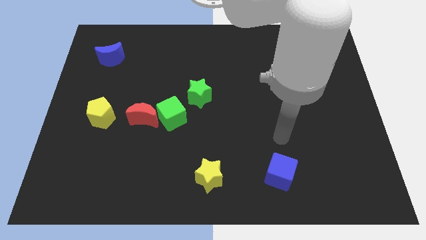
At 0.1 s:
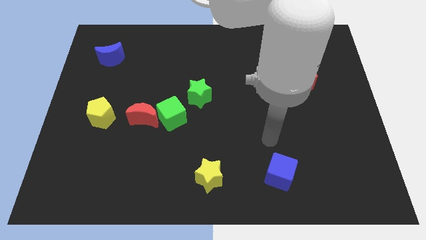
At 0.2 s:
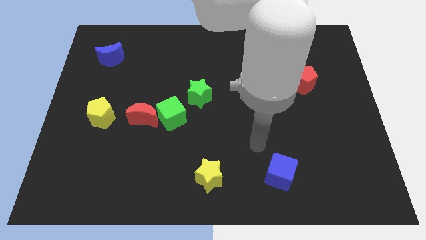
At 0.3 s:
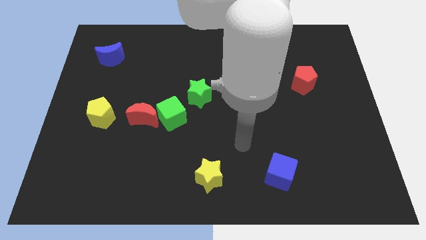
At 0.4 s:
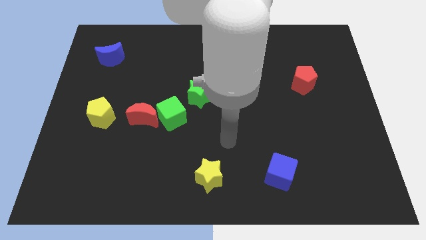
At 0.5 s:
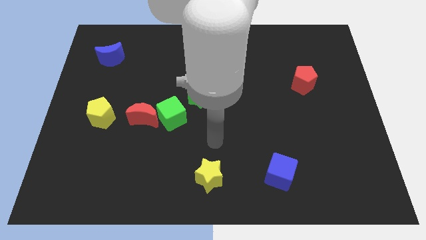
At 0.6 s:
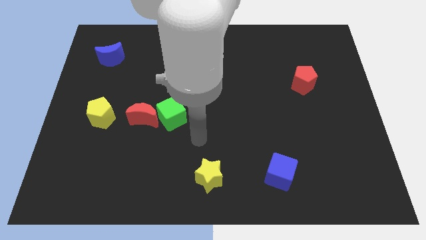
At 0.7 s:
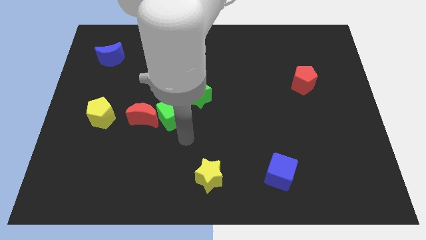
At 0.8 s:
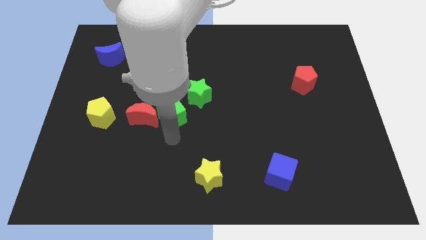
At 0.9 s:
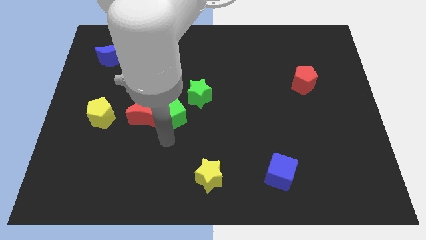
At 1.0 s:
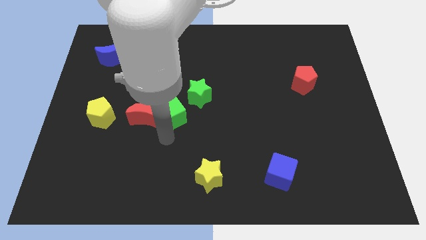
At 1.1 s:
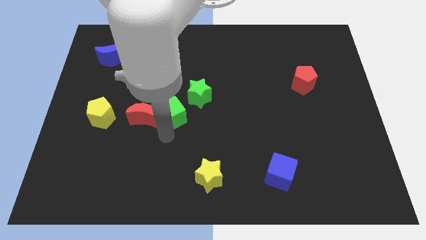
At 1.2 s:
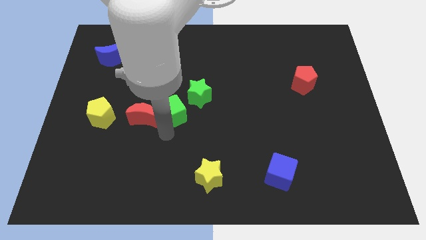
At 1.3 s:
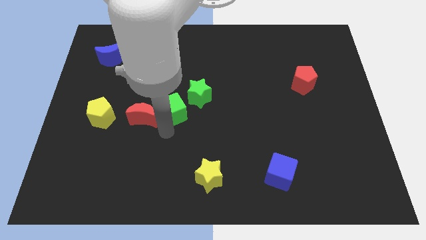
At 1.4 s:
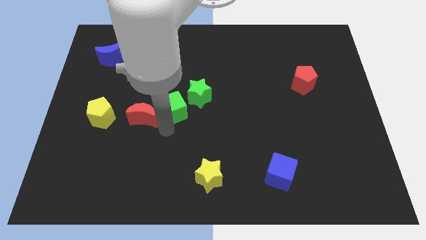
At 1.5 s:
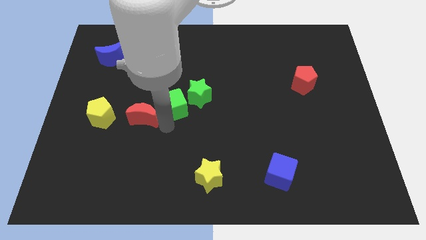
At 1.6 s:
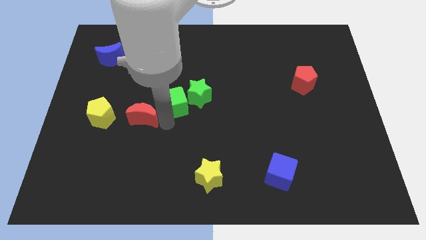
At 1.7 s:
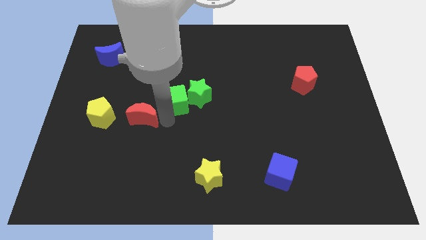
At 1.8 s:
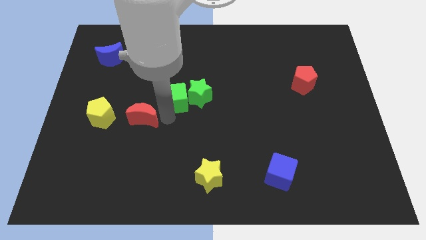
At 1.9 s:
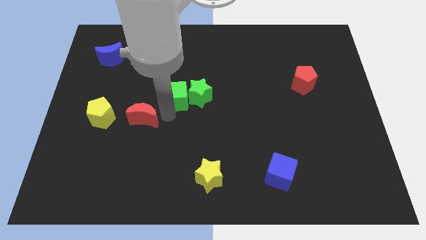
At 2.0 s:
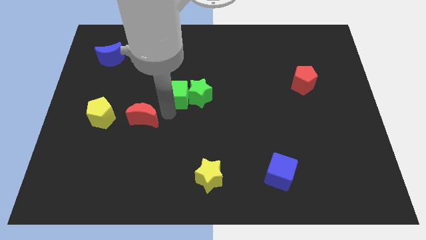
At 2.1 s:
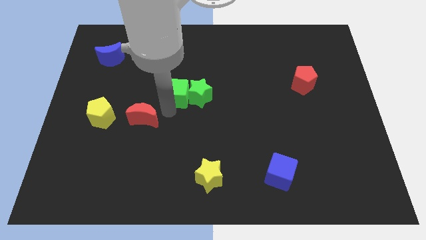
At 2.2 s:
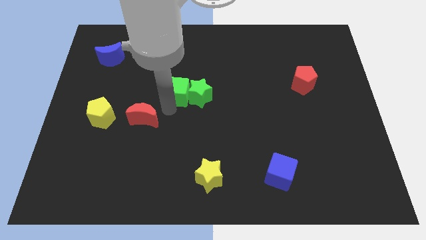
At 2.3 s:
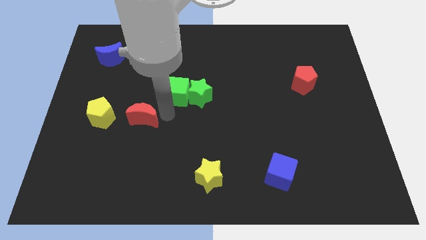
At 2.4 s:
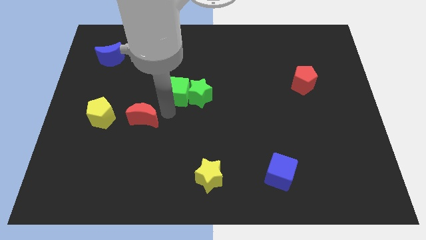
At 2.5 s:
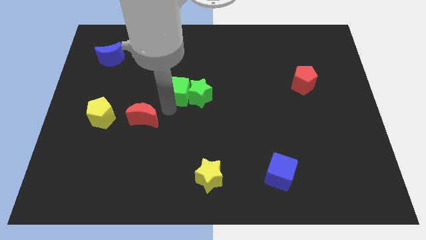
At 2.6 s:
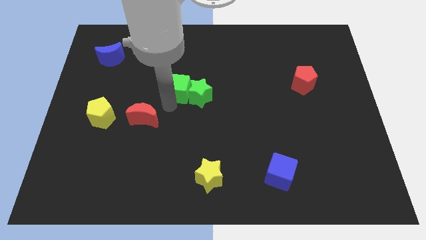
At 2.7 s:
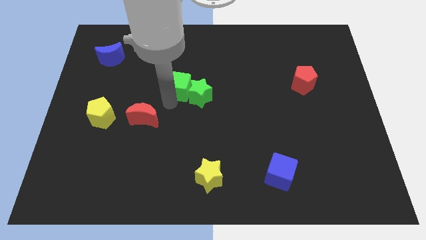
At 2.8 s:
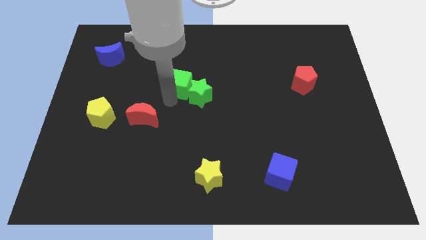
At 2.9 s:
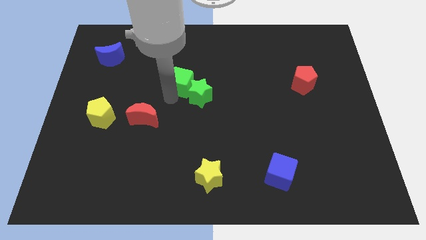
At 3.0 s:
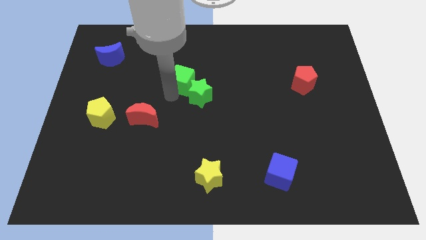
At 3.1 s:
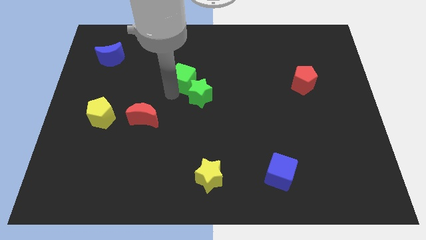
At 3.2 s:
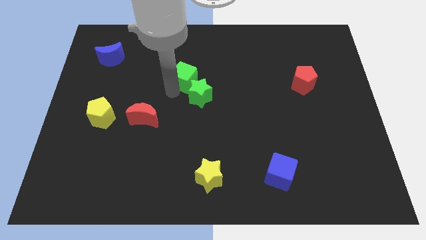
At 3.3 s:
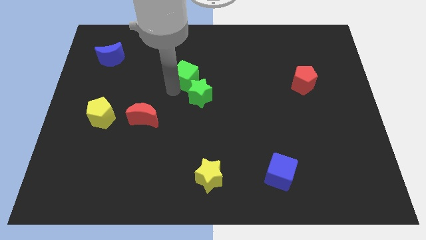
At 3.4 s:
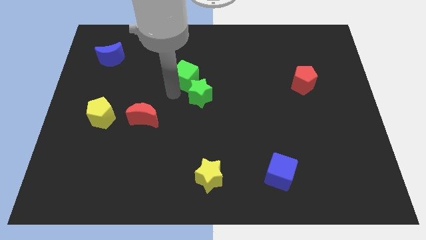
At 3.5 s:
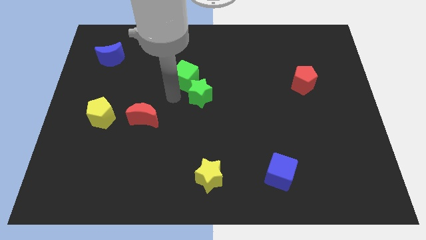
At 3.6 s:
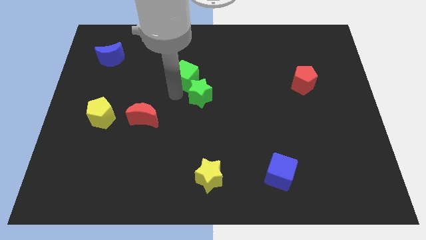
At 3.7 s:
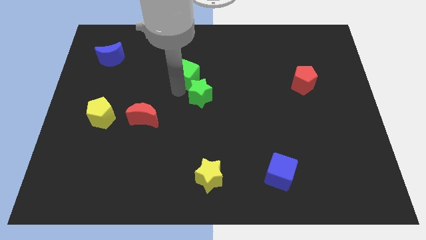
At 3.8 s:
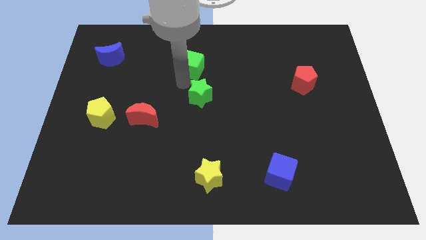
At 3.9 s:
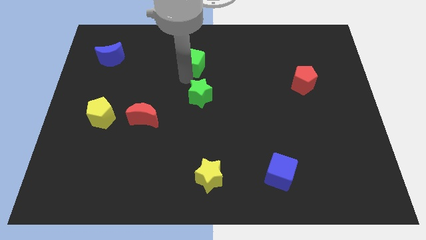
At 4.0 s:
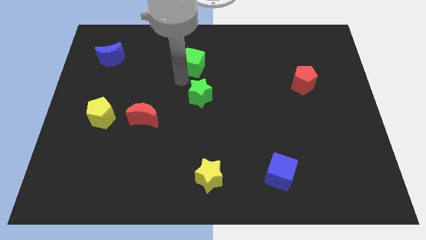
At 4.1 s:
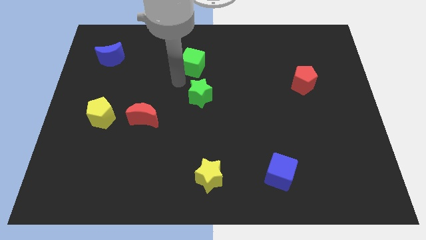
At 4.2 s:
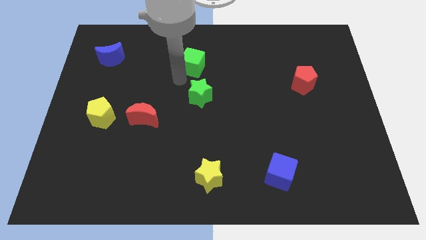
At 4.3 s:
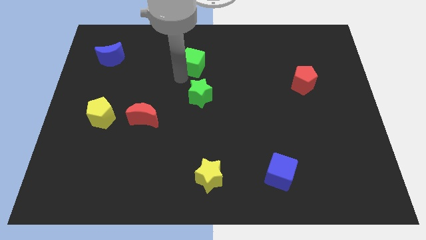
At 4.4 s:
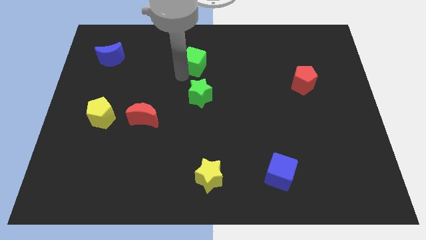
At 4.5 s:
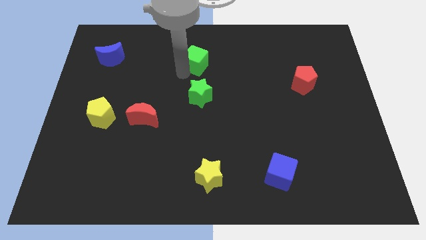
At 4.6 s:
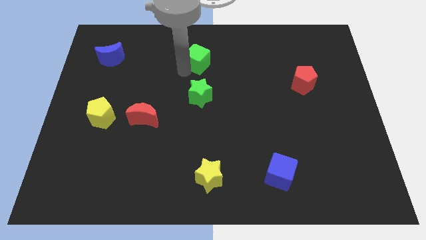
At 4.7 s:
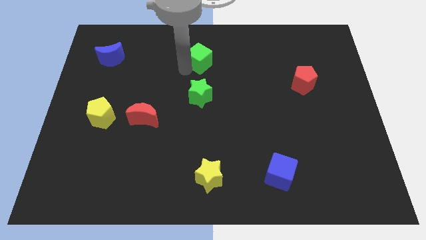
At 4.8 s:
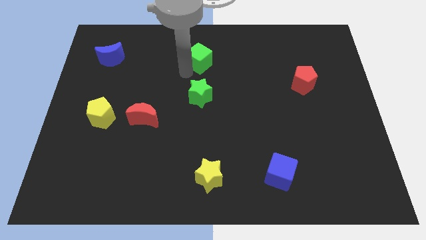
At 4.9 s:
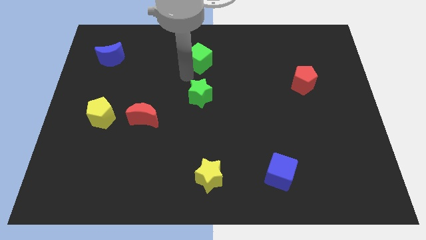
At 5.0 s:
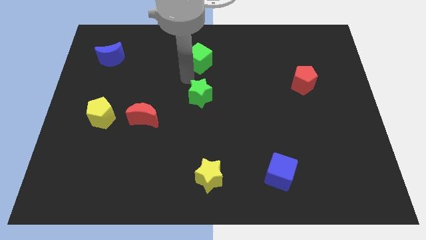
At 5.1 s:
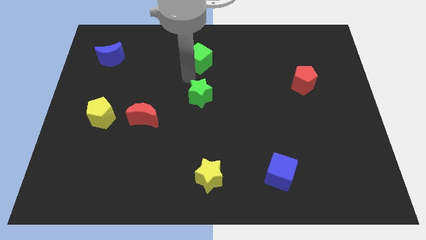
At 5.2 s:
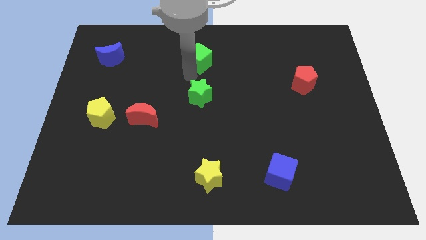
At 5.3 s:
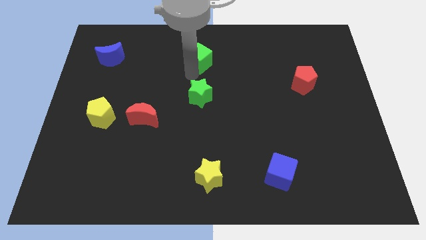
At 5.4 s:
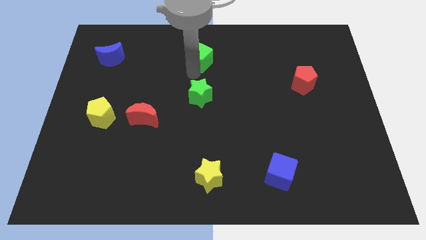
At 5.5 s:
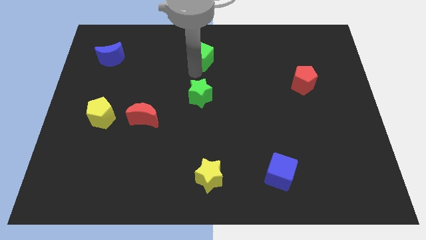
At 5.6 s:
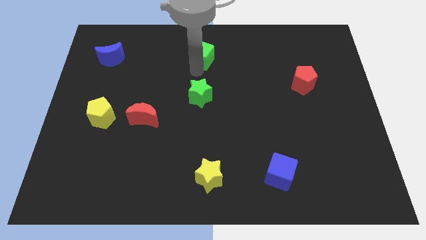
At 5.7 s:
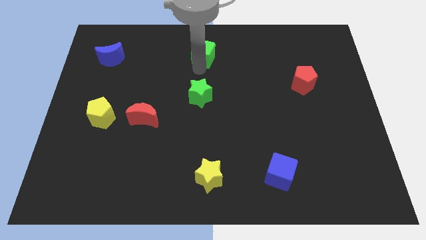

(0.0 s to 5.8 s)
put the green cube to the top

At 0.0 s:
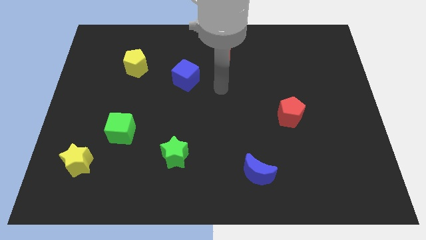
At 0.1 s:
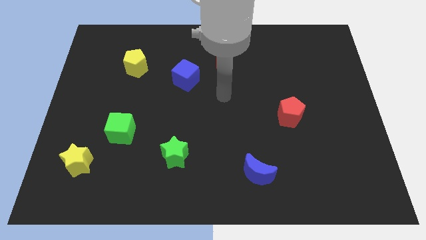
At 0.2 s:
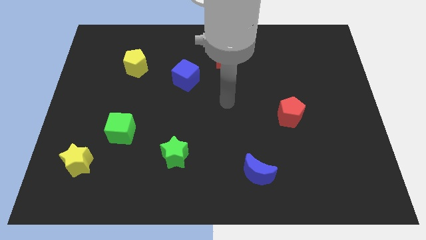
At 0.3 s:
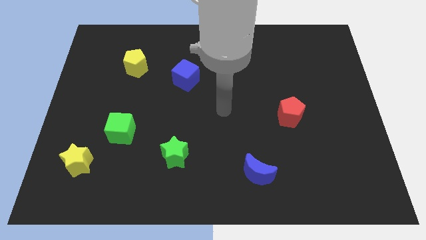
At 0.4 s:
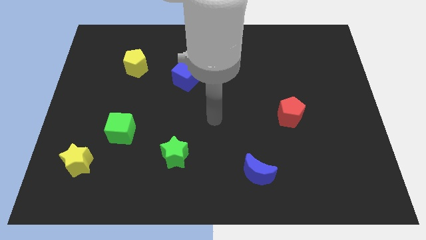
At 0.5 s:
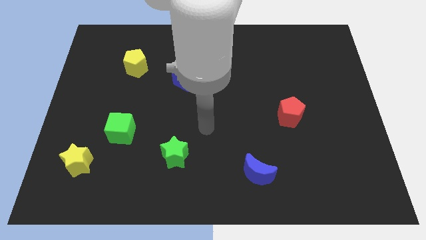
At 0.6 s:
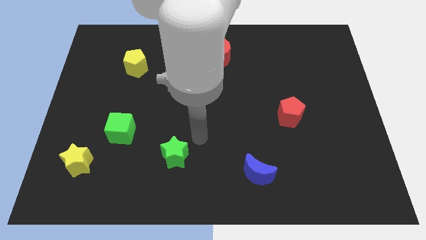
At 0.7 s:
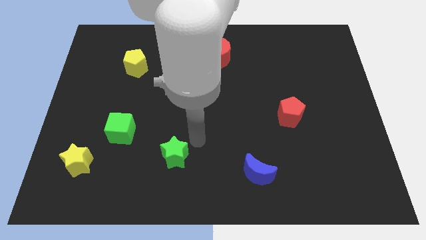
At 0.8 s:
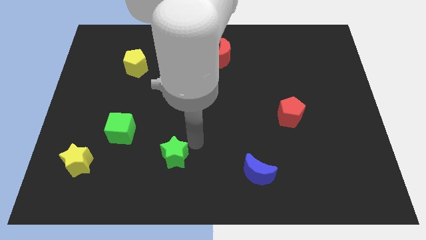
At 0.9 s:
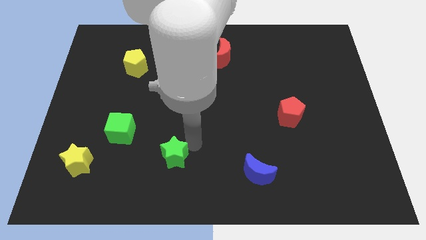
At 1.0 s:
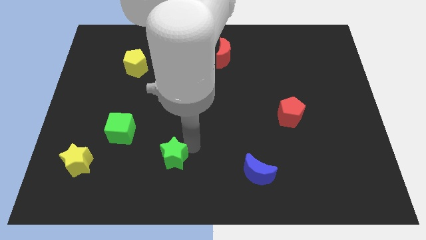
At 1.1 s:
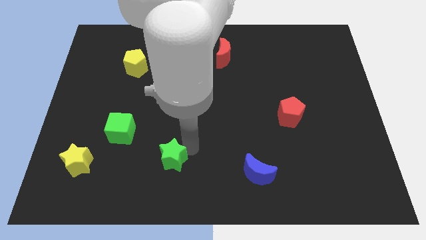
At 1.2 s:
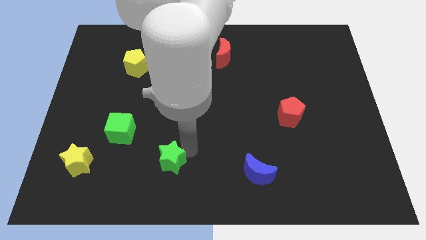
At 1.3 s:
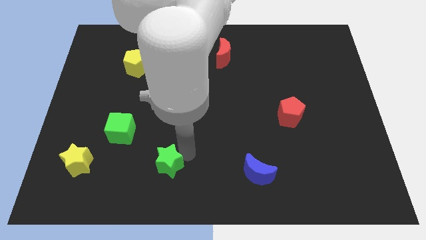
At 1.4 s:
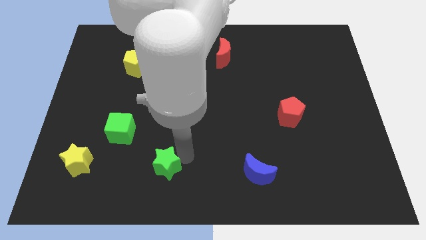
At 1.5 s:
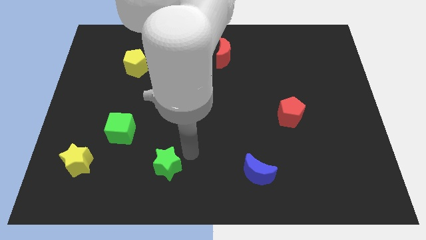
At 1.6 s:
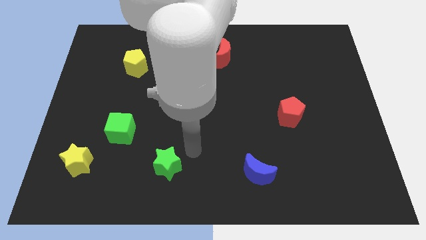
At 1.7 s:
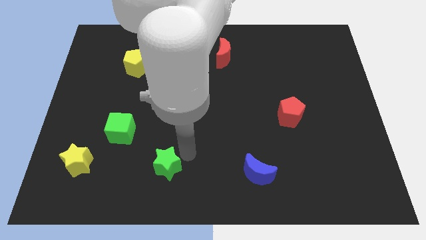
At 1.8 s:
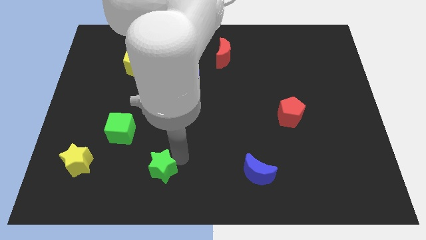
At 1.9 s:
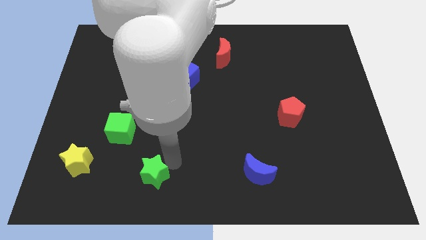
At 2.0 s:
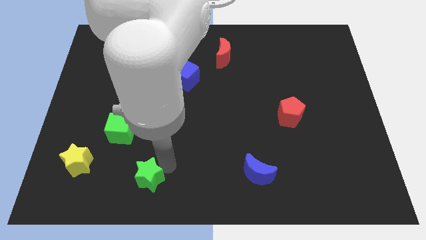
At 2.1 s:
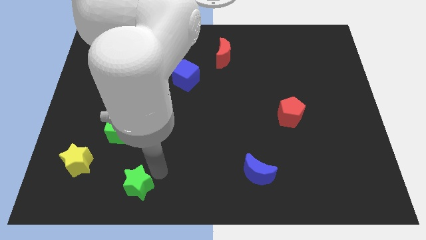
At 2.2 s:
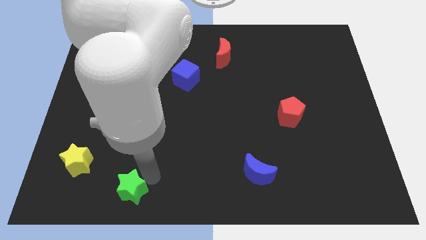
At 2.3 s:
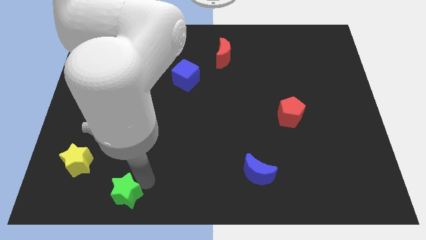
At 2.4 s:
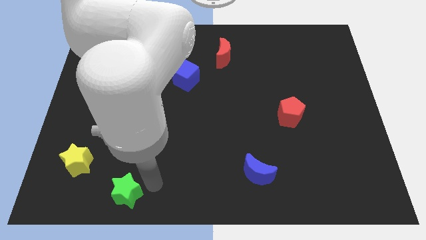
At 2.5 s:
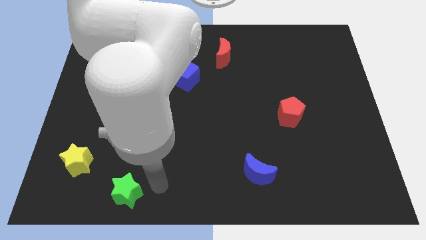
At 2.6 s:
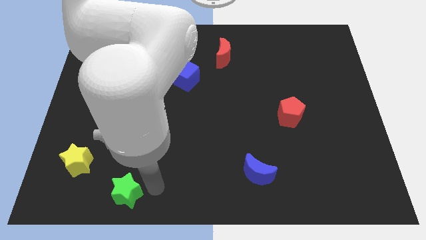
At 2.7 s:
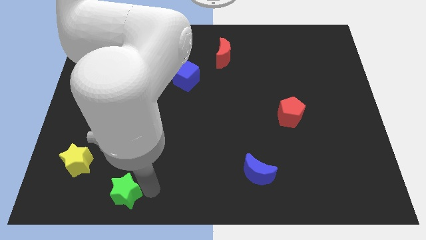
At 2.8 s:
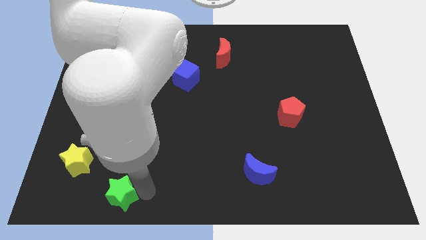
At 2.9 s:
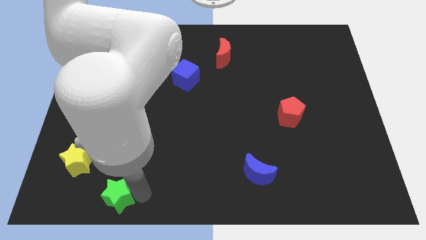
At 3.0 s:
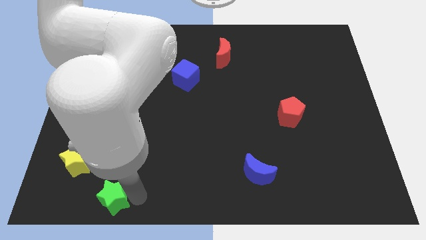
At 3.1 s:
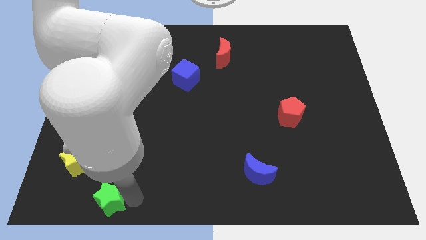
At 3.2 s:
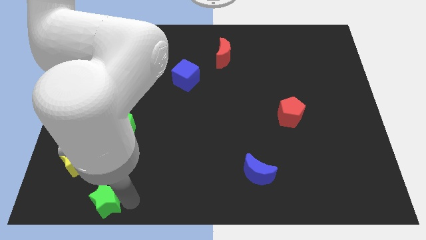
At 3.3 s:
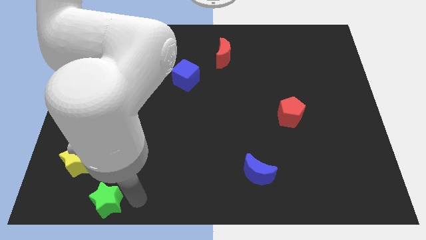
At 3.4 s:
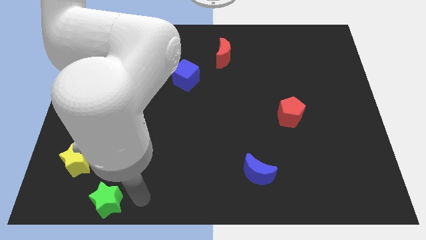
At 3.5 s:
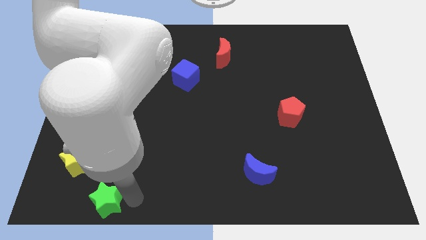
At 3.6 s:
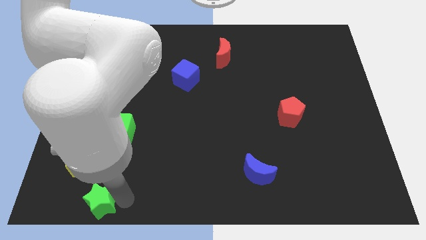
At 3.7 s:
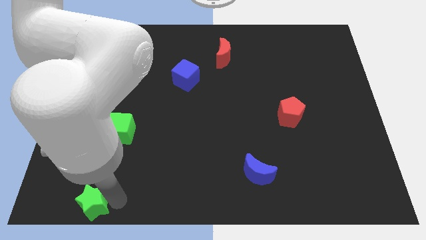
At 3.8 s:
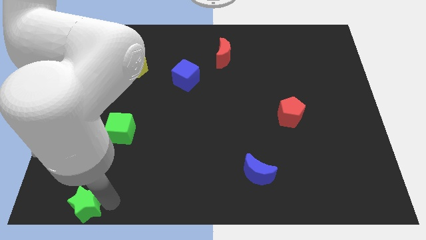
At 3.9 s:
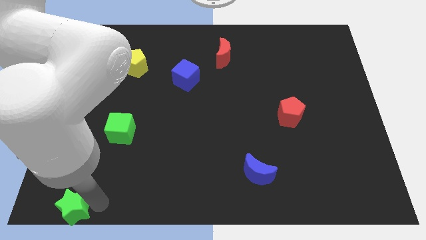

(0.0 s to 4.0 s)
push the green star to the bottom left of the board
